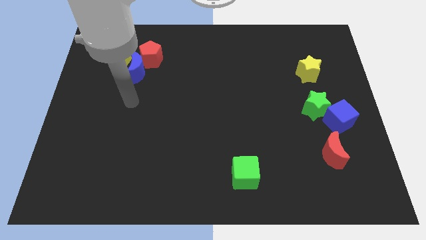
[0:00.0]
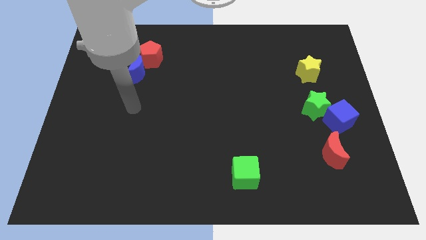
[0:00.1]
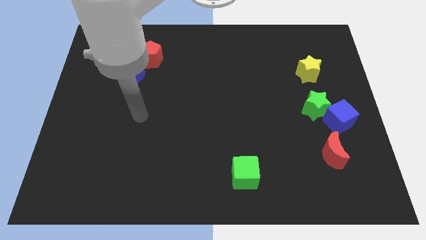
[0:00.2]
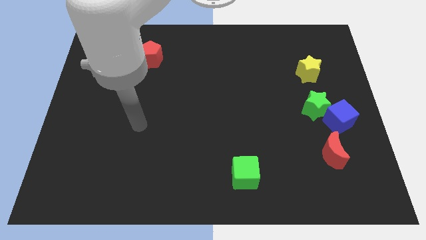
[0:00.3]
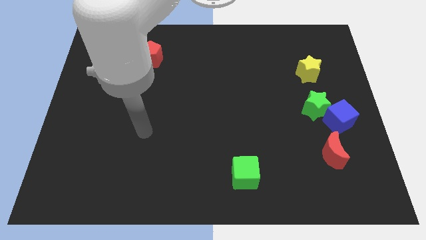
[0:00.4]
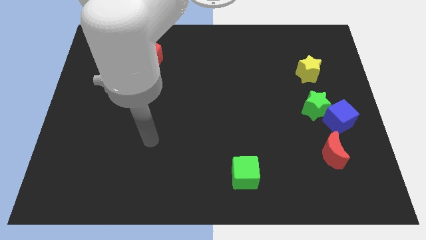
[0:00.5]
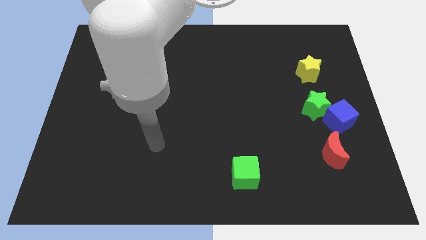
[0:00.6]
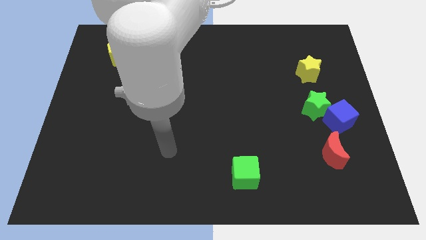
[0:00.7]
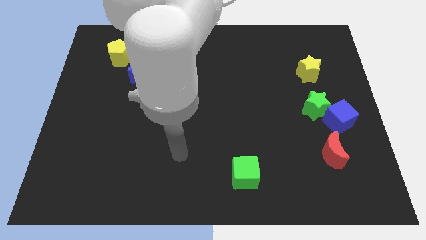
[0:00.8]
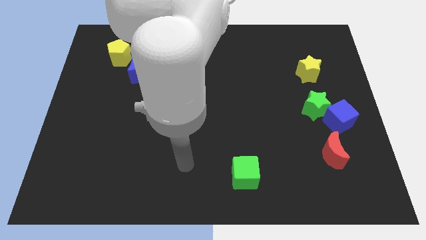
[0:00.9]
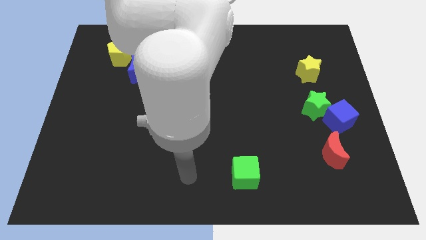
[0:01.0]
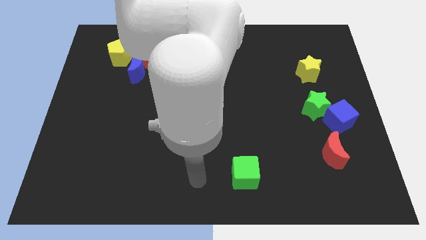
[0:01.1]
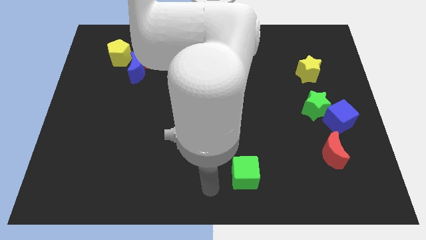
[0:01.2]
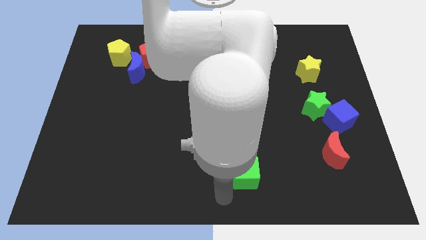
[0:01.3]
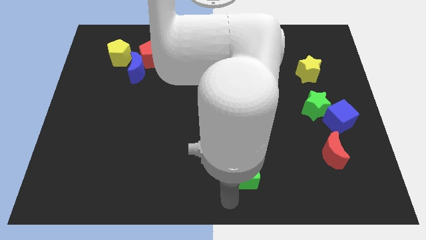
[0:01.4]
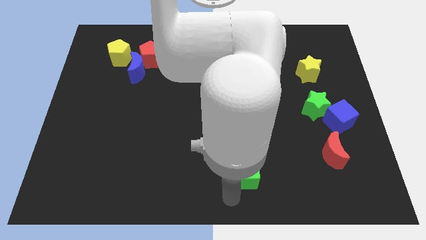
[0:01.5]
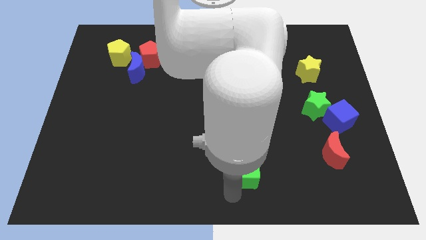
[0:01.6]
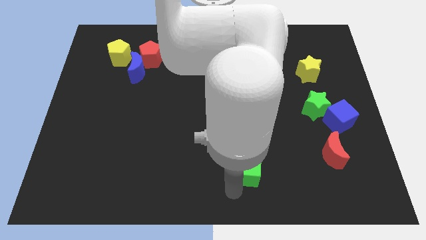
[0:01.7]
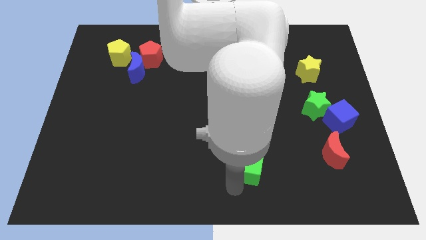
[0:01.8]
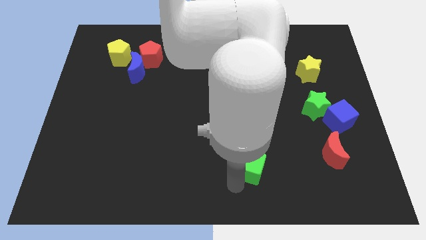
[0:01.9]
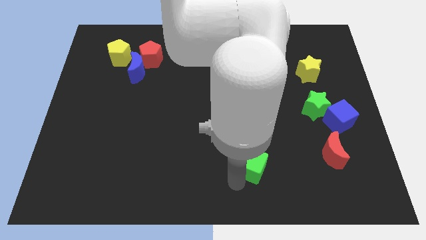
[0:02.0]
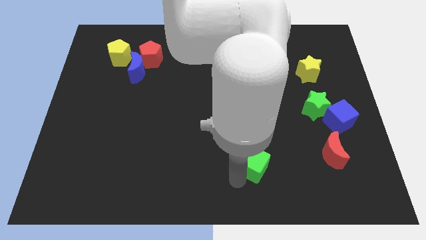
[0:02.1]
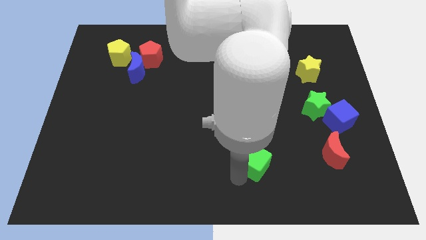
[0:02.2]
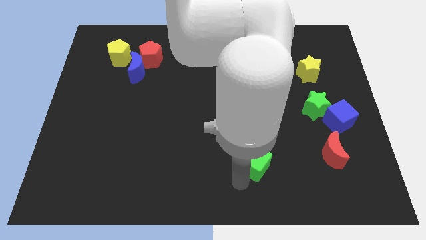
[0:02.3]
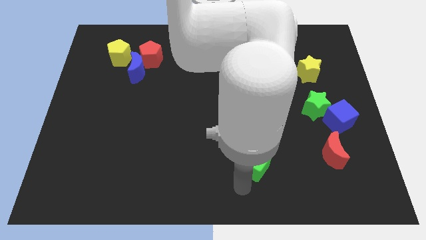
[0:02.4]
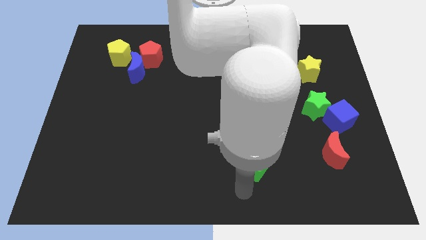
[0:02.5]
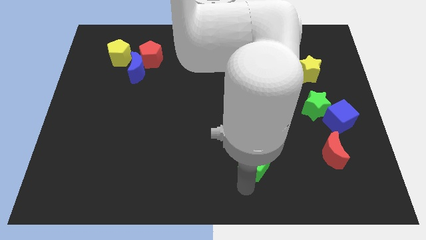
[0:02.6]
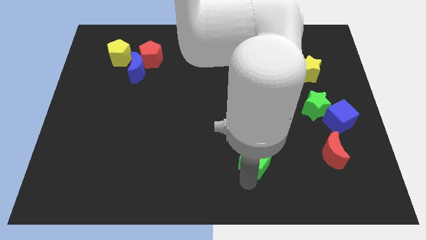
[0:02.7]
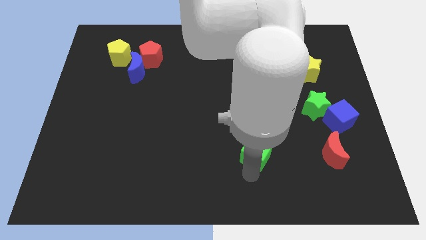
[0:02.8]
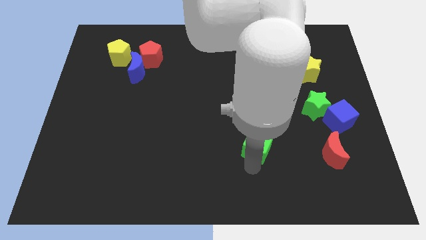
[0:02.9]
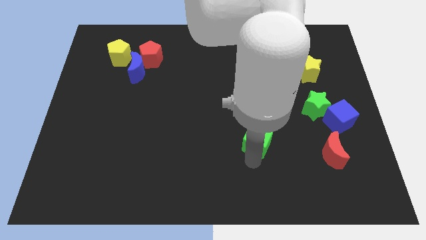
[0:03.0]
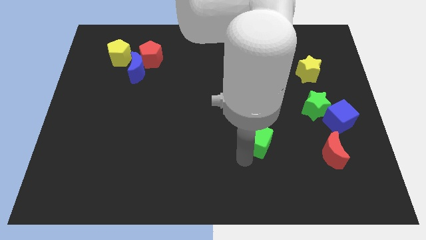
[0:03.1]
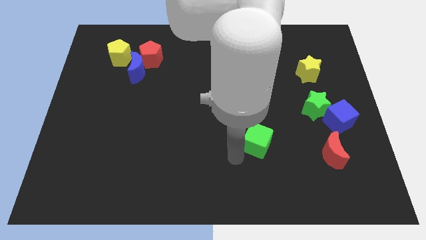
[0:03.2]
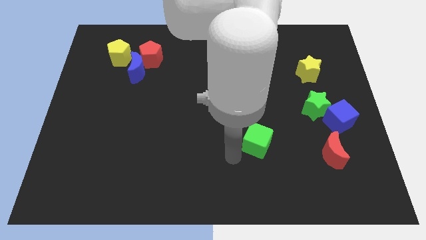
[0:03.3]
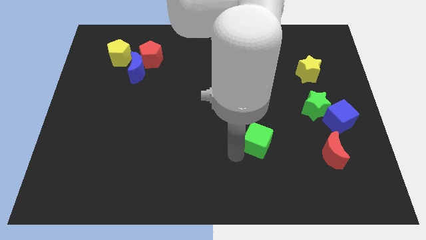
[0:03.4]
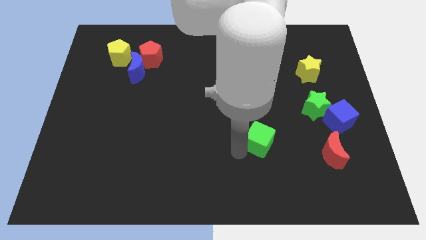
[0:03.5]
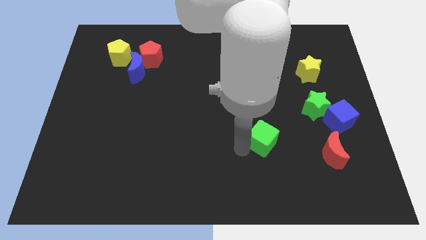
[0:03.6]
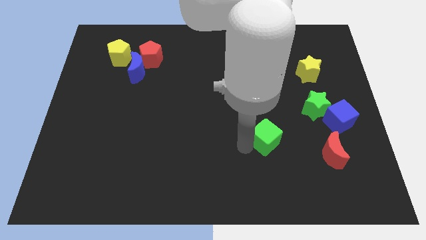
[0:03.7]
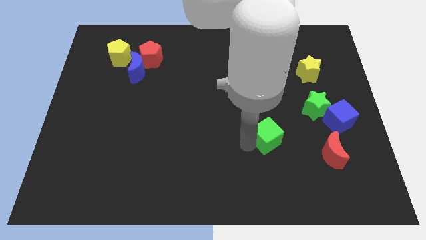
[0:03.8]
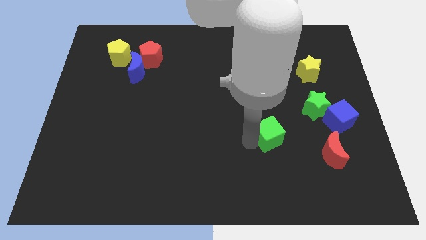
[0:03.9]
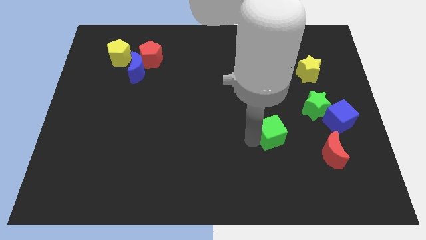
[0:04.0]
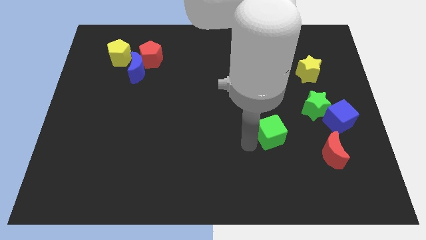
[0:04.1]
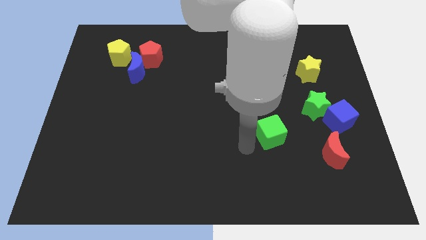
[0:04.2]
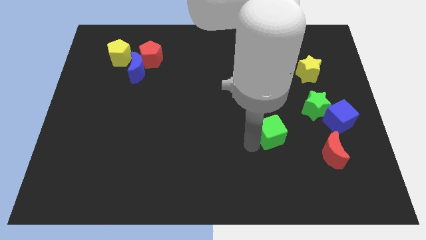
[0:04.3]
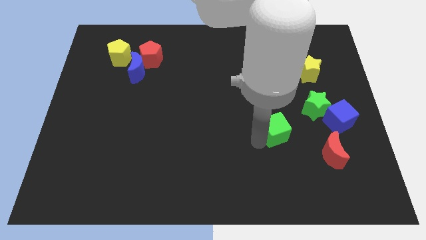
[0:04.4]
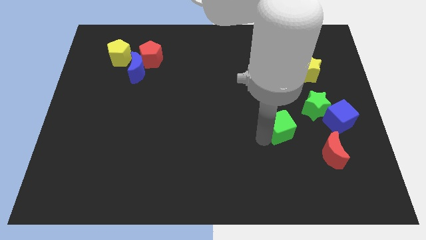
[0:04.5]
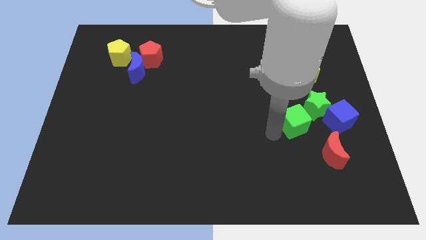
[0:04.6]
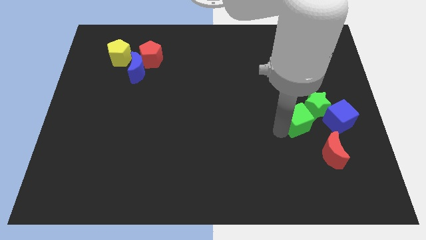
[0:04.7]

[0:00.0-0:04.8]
push the green cube to the green star

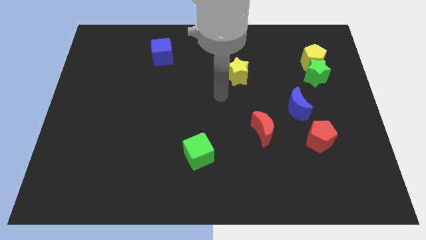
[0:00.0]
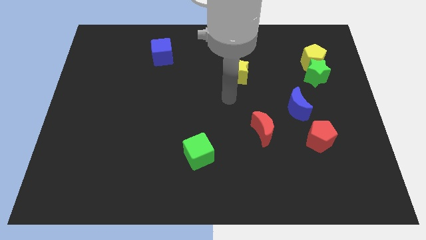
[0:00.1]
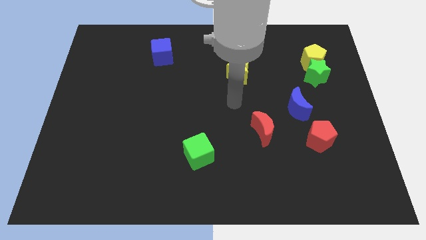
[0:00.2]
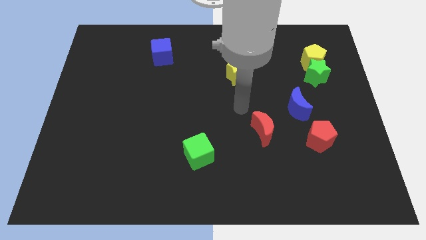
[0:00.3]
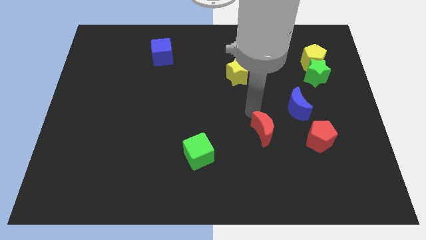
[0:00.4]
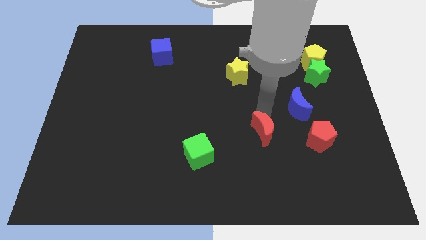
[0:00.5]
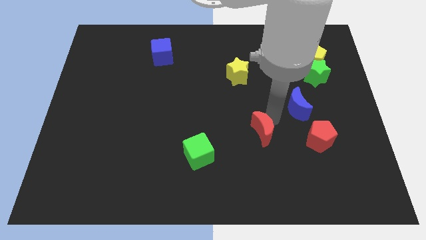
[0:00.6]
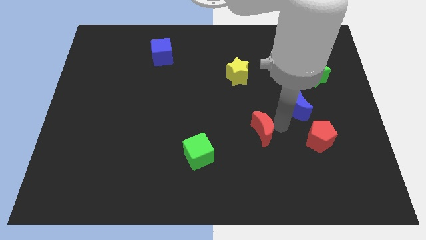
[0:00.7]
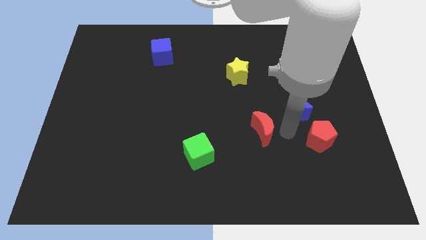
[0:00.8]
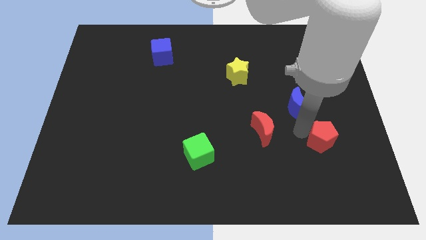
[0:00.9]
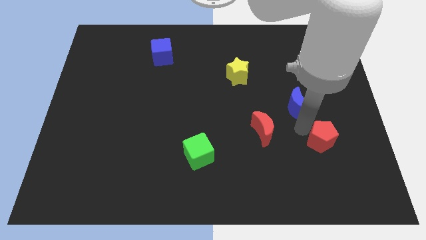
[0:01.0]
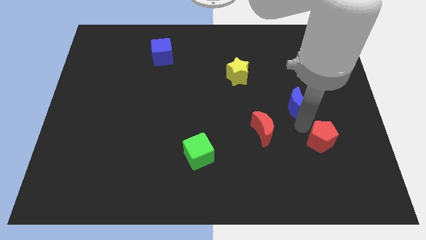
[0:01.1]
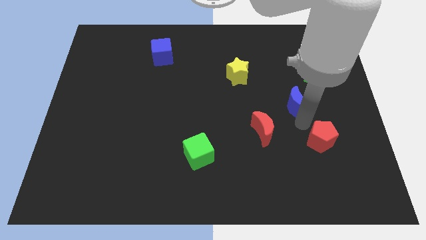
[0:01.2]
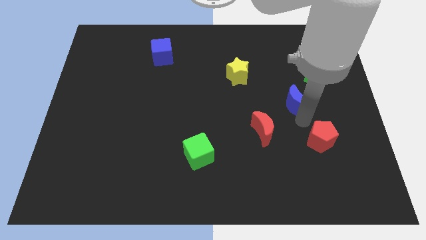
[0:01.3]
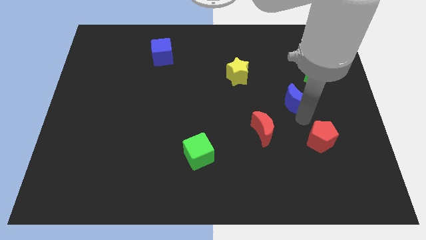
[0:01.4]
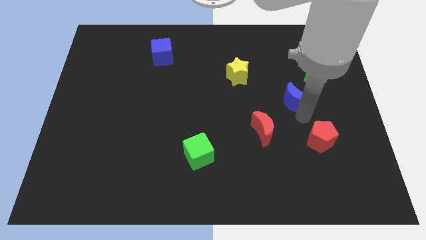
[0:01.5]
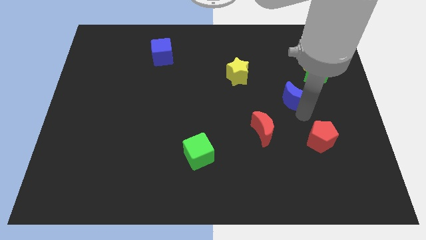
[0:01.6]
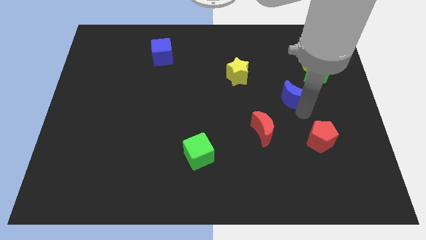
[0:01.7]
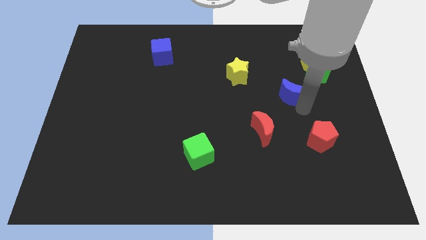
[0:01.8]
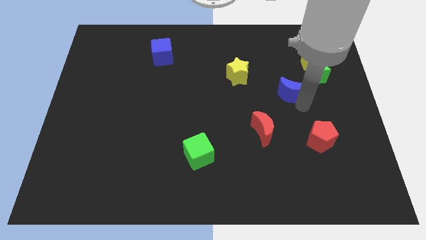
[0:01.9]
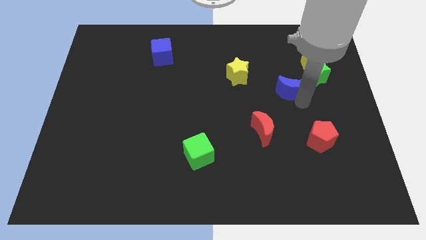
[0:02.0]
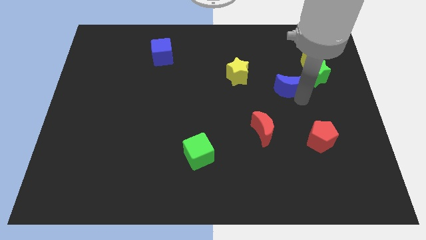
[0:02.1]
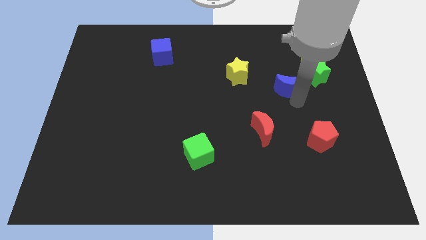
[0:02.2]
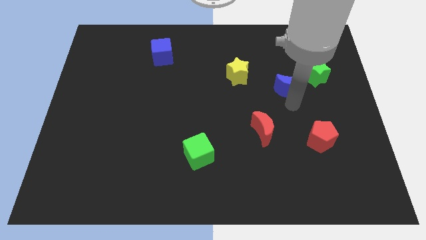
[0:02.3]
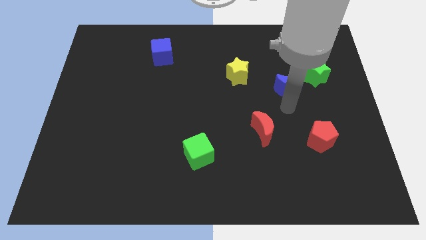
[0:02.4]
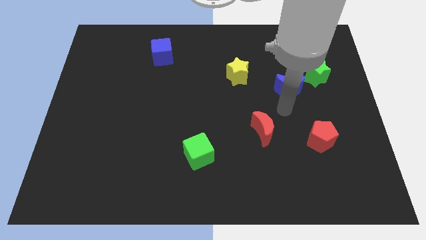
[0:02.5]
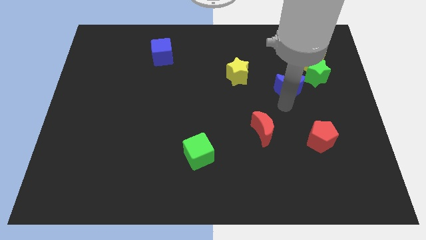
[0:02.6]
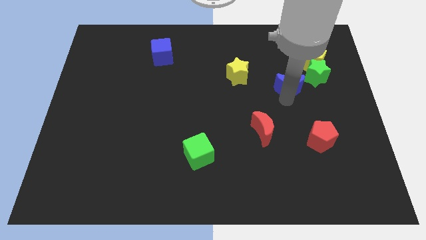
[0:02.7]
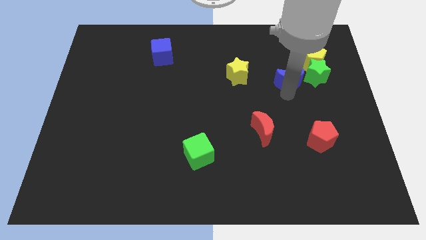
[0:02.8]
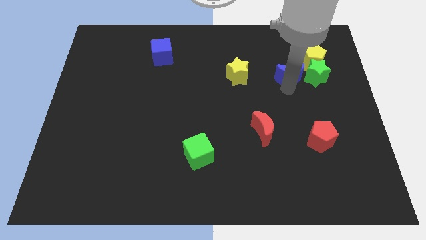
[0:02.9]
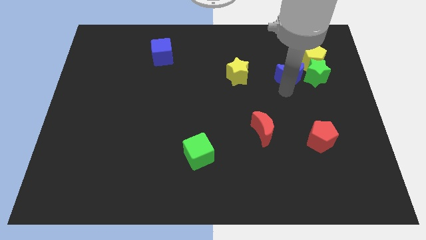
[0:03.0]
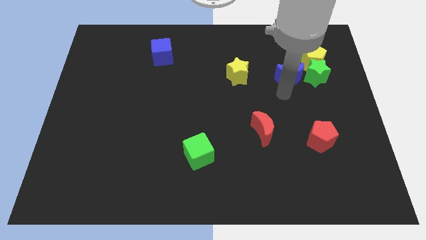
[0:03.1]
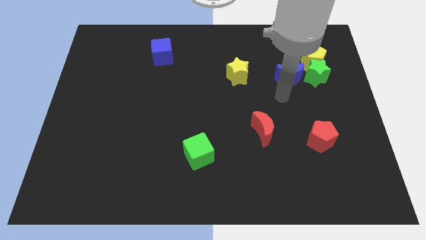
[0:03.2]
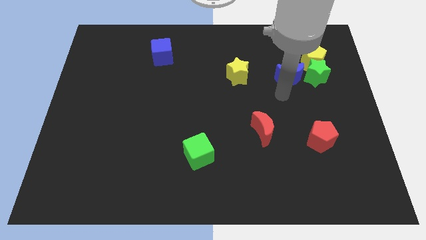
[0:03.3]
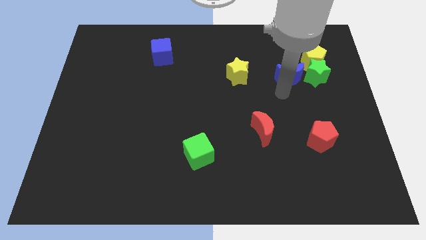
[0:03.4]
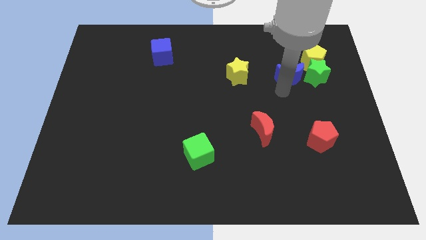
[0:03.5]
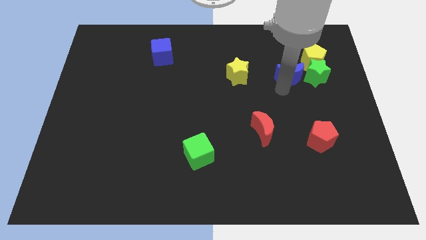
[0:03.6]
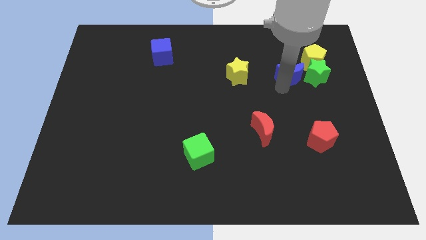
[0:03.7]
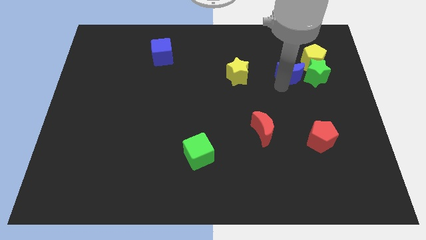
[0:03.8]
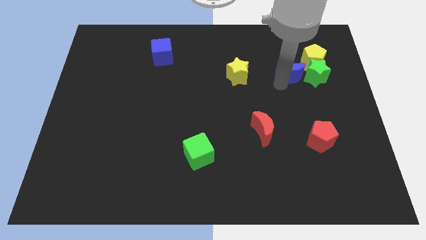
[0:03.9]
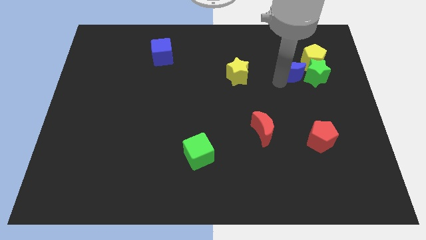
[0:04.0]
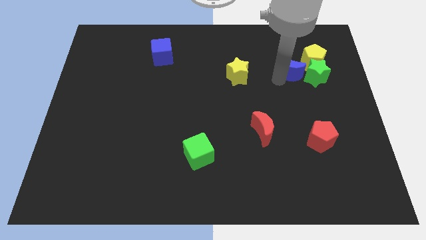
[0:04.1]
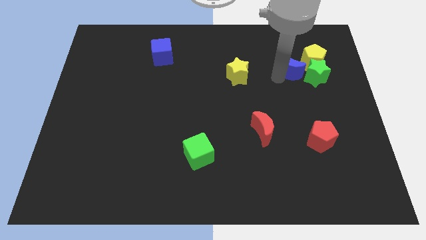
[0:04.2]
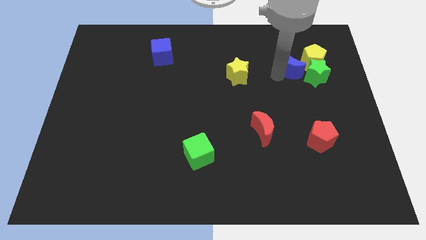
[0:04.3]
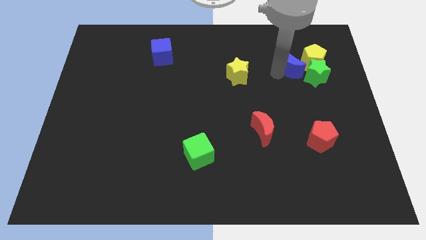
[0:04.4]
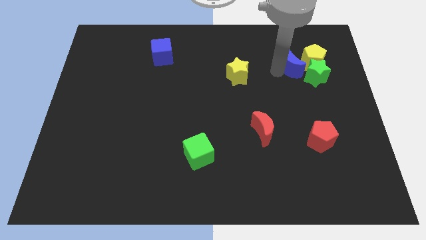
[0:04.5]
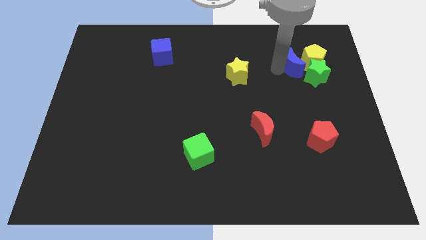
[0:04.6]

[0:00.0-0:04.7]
move the blue moon close to the yellow pentagon
